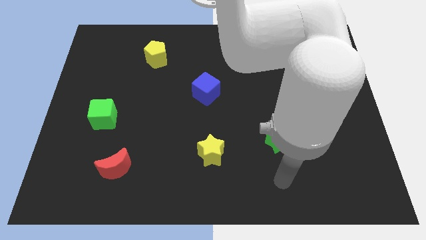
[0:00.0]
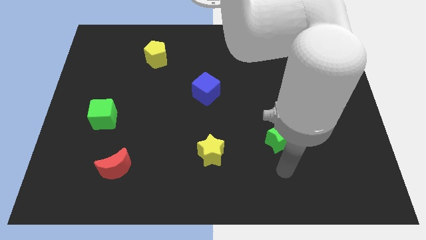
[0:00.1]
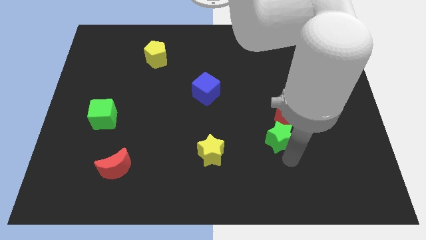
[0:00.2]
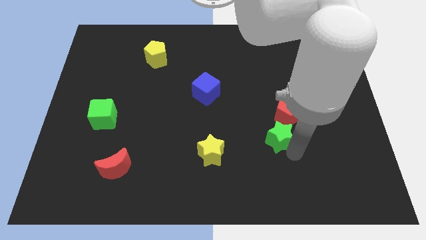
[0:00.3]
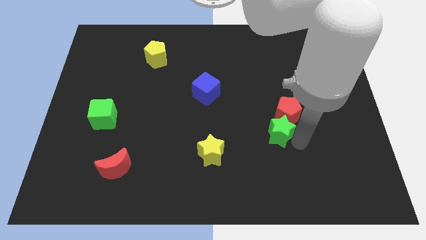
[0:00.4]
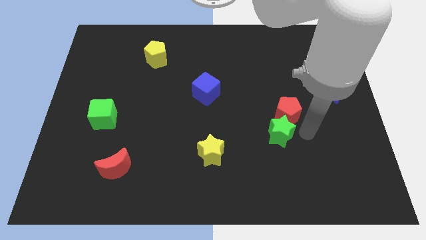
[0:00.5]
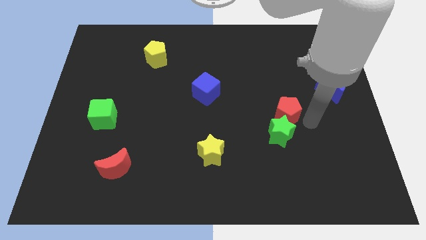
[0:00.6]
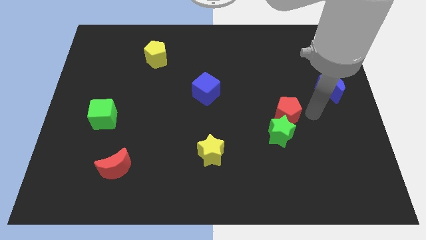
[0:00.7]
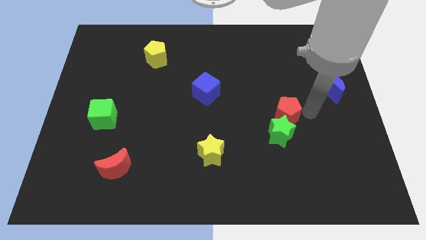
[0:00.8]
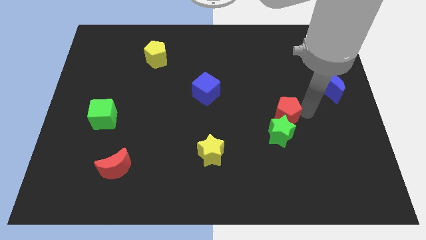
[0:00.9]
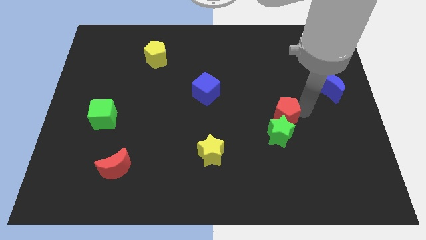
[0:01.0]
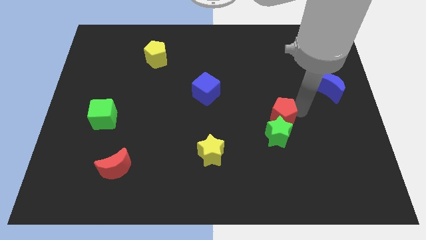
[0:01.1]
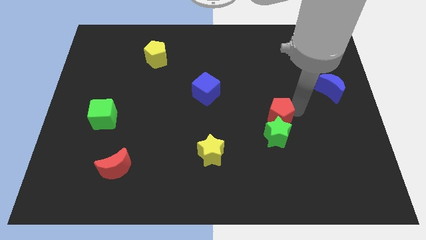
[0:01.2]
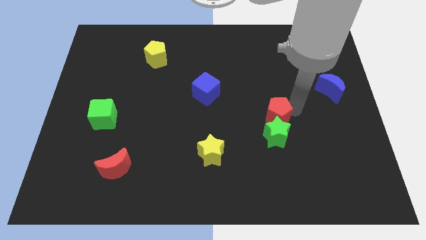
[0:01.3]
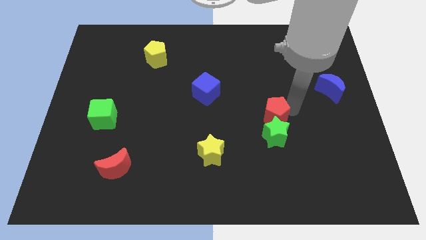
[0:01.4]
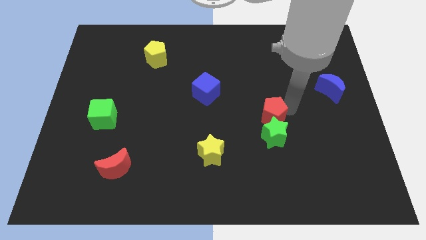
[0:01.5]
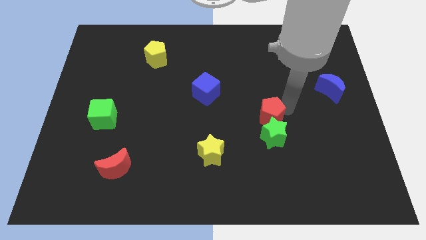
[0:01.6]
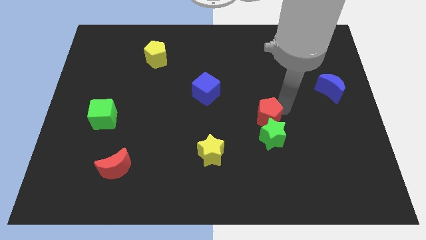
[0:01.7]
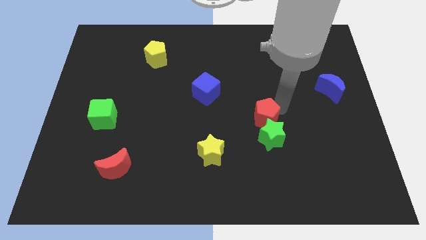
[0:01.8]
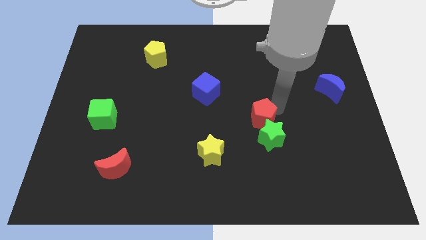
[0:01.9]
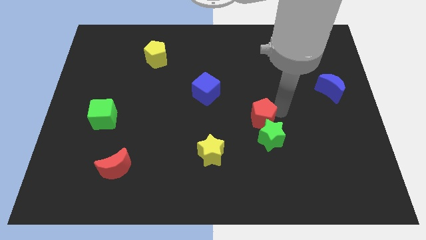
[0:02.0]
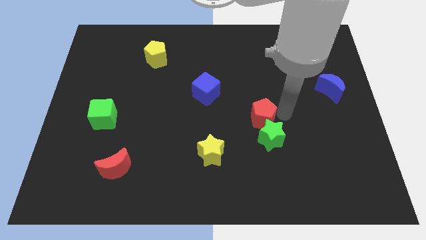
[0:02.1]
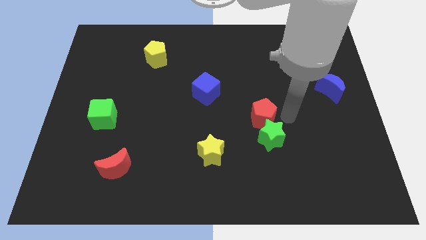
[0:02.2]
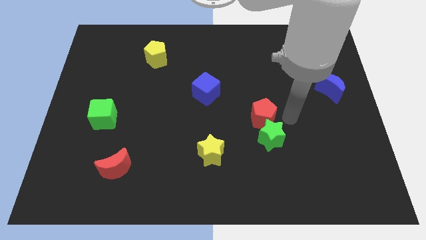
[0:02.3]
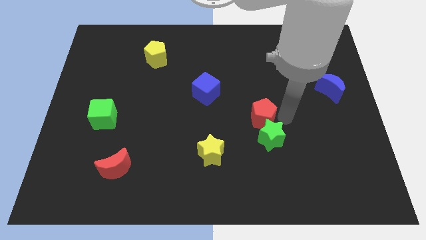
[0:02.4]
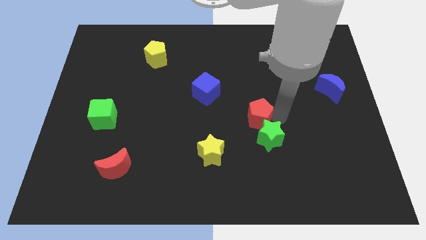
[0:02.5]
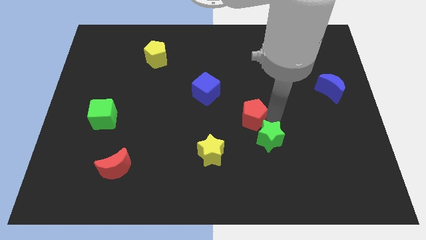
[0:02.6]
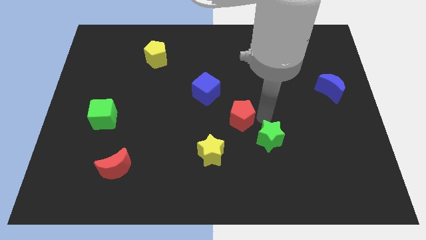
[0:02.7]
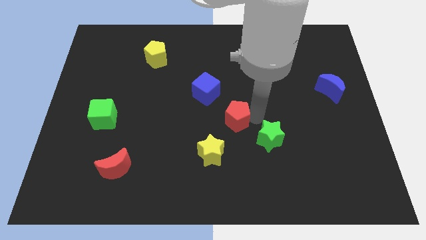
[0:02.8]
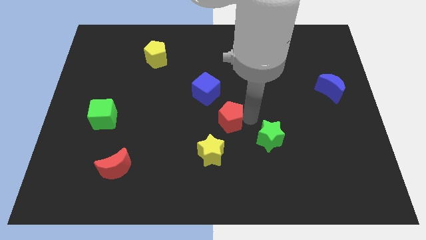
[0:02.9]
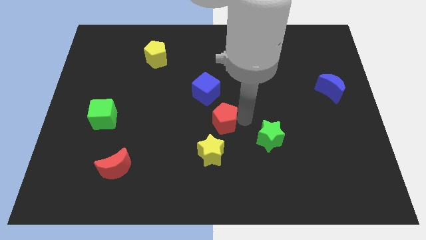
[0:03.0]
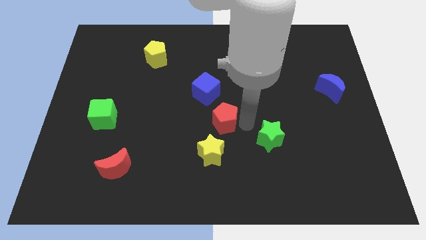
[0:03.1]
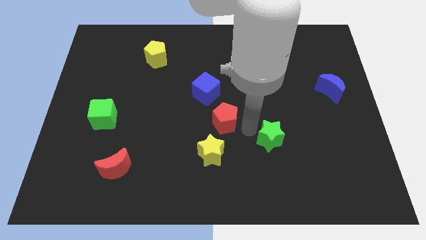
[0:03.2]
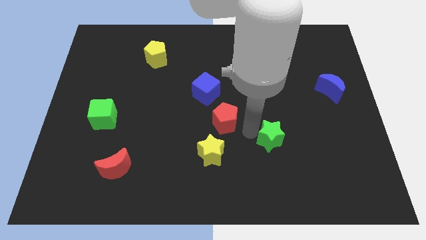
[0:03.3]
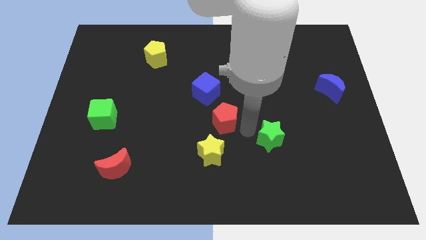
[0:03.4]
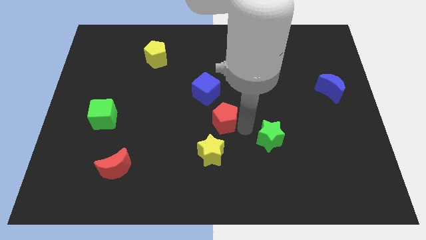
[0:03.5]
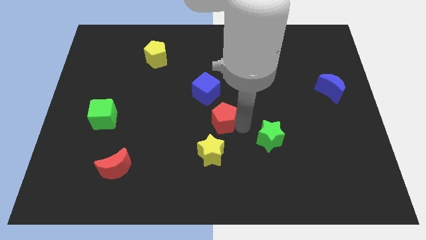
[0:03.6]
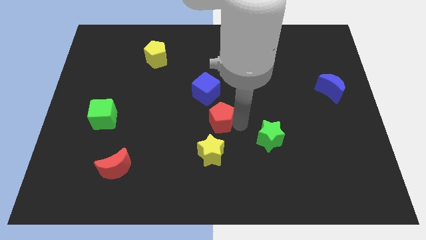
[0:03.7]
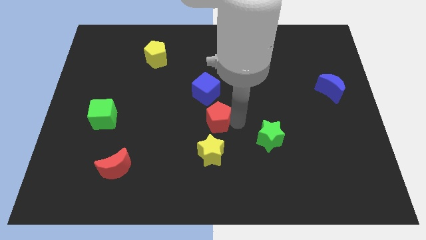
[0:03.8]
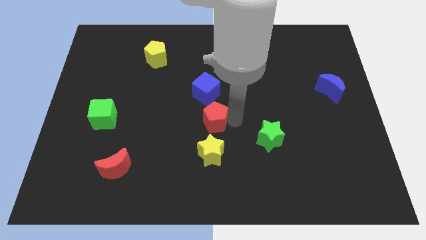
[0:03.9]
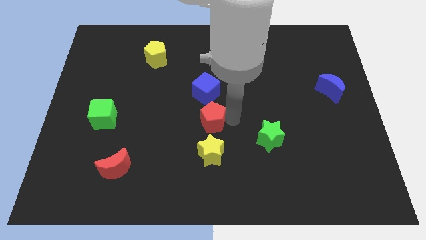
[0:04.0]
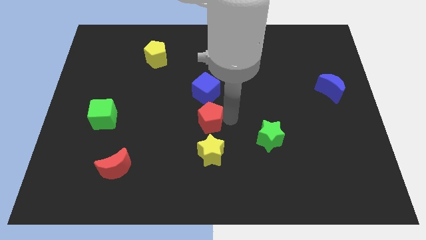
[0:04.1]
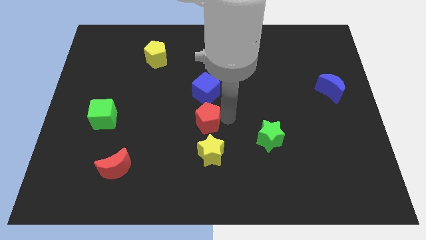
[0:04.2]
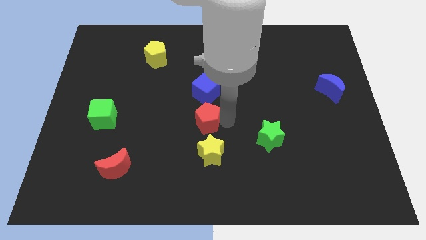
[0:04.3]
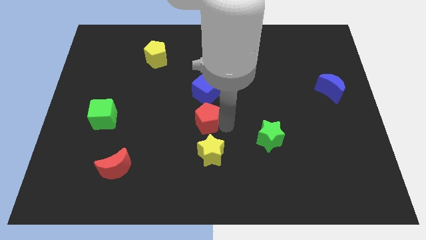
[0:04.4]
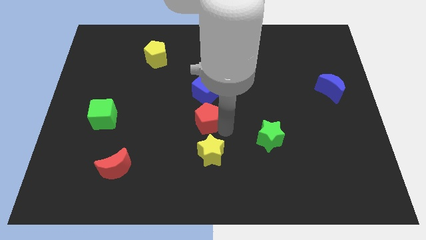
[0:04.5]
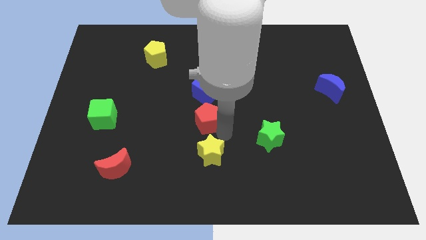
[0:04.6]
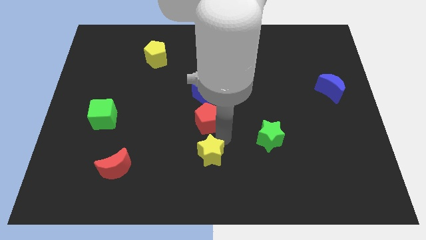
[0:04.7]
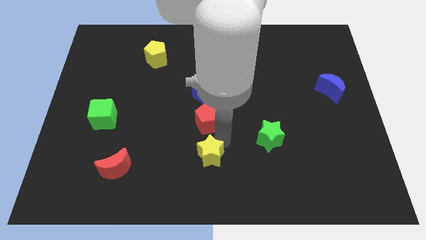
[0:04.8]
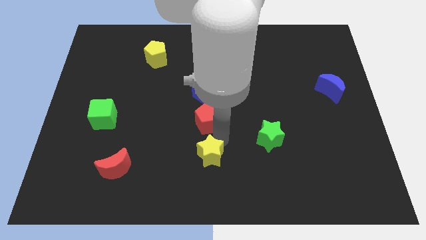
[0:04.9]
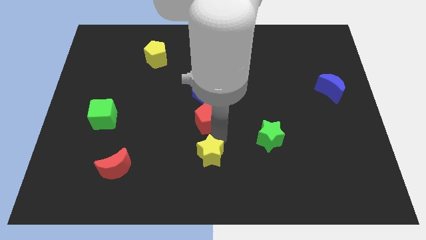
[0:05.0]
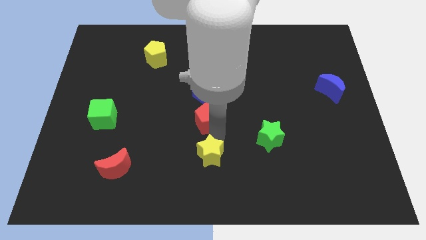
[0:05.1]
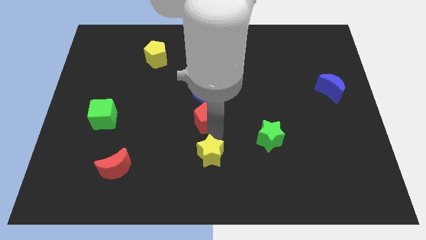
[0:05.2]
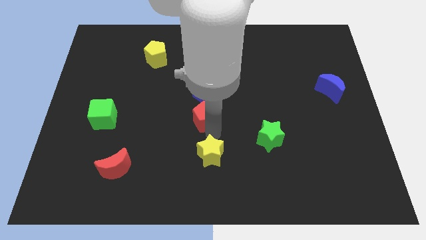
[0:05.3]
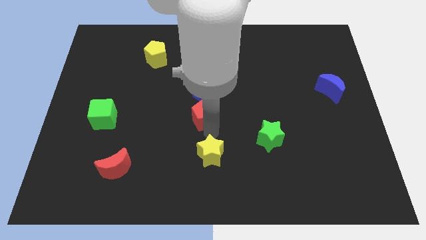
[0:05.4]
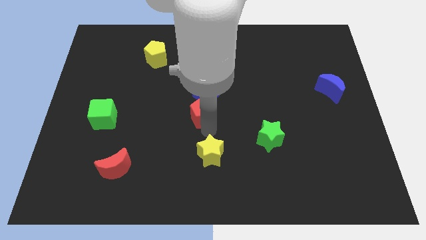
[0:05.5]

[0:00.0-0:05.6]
put the red pentagon diagonally down and to the left of the blue cube

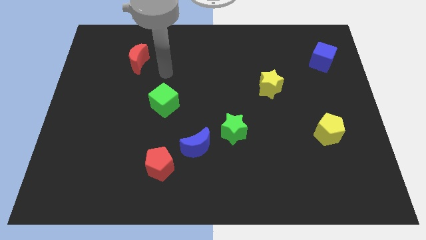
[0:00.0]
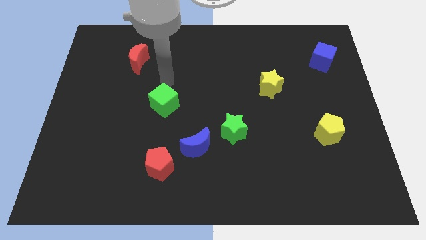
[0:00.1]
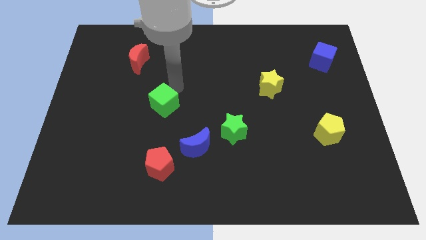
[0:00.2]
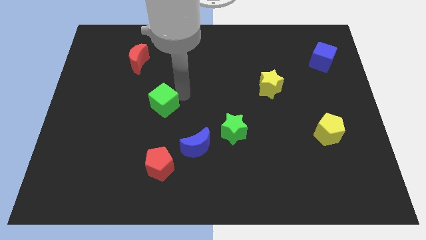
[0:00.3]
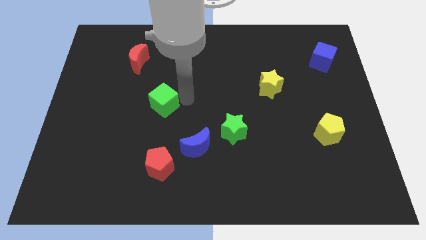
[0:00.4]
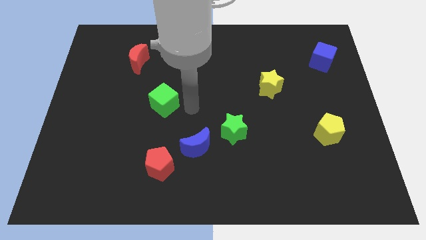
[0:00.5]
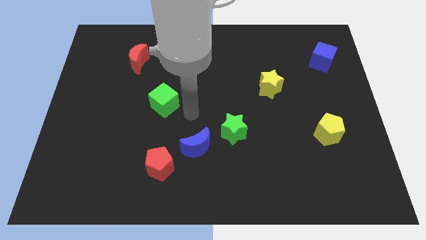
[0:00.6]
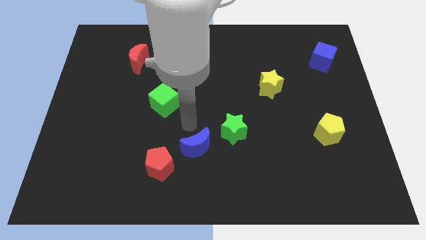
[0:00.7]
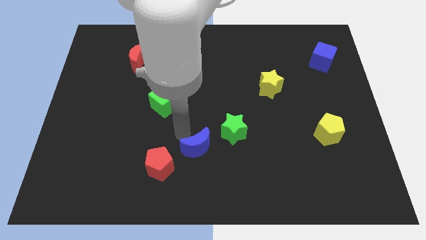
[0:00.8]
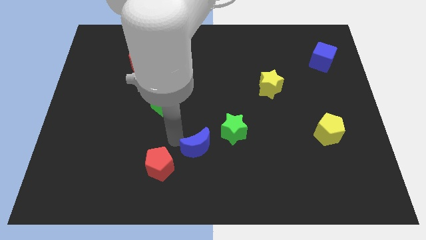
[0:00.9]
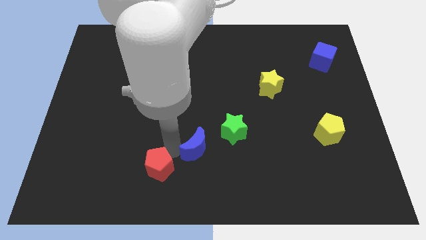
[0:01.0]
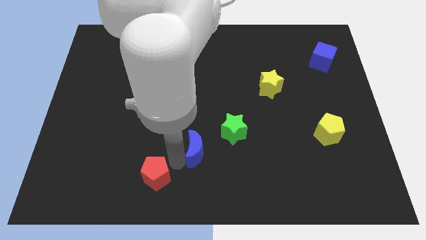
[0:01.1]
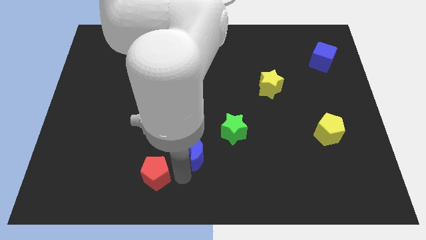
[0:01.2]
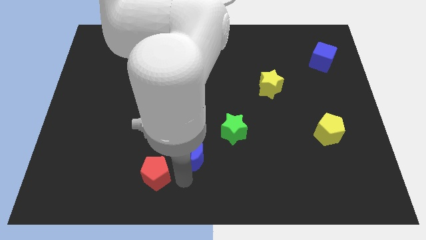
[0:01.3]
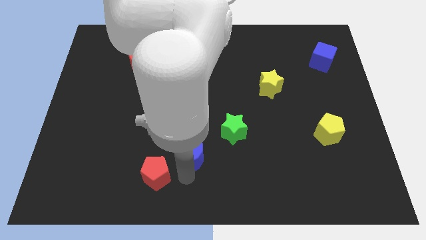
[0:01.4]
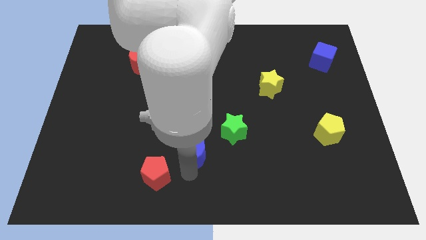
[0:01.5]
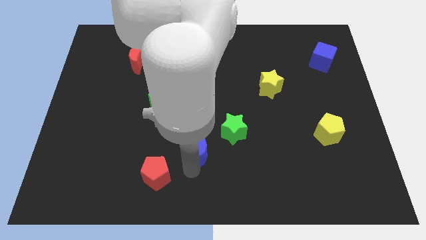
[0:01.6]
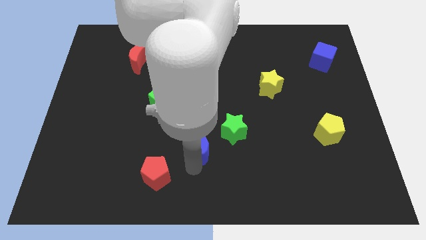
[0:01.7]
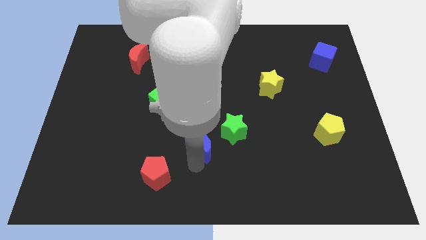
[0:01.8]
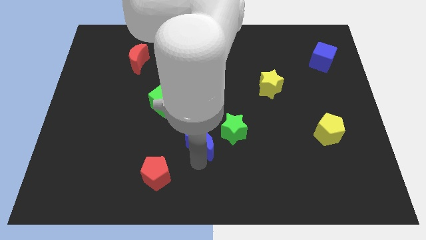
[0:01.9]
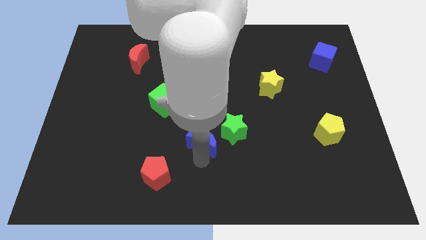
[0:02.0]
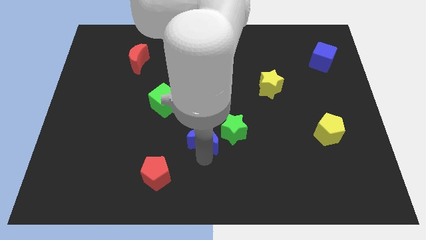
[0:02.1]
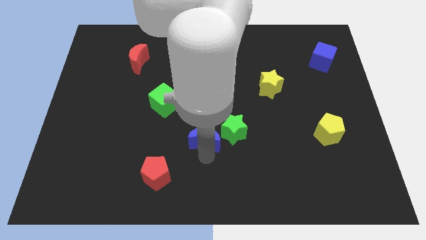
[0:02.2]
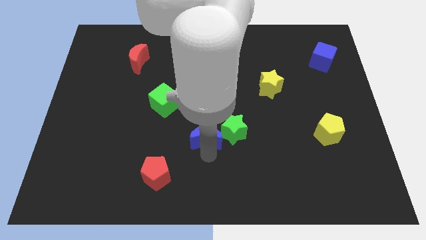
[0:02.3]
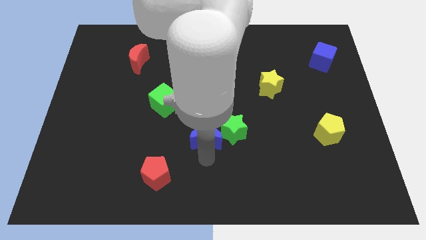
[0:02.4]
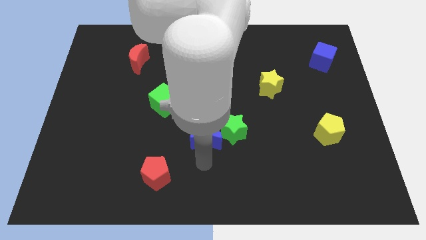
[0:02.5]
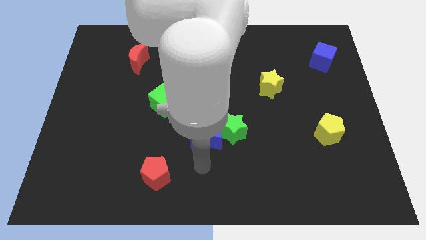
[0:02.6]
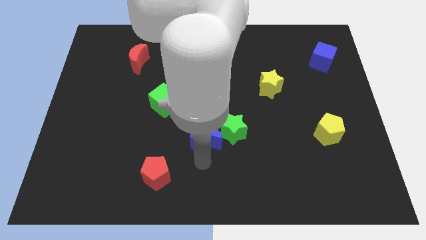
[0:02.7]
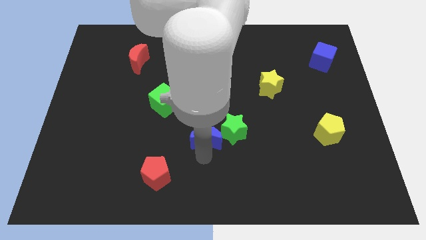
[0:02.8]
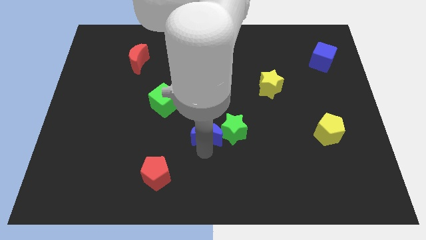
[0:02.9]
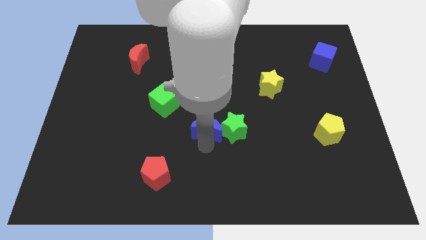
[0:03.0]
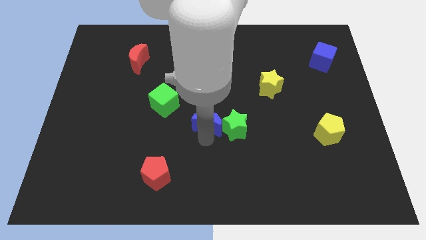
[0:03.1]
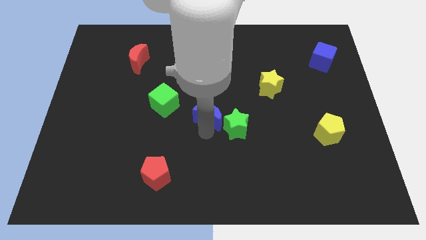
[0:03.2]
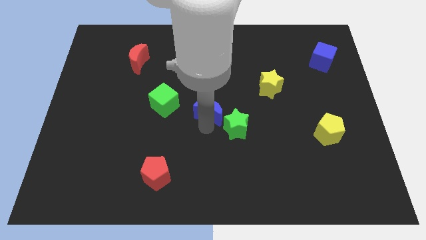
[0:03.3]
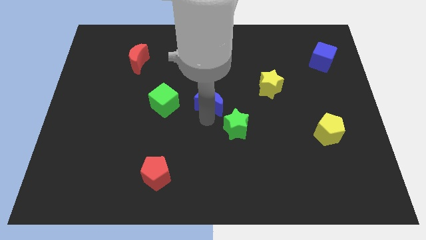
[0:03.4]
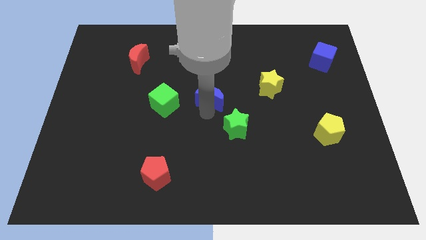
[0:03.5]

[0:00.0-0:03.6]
put the blue moon just left of the yellow star
